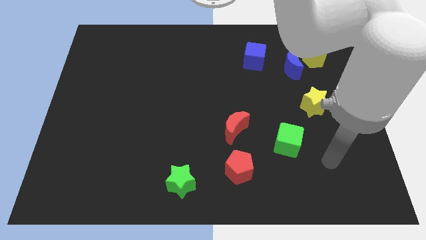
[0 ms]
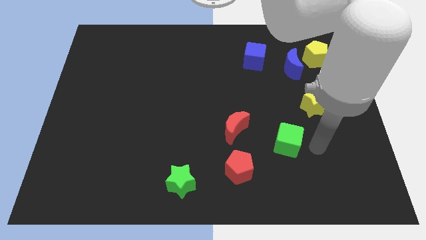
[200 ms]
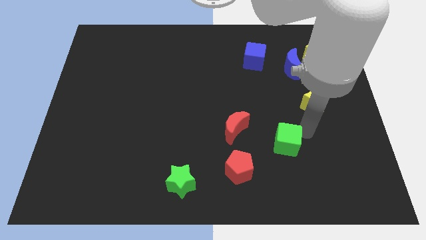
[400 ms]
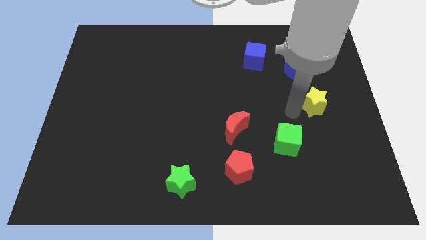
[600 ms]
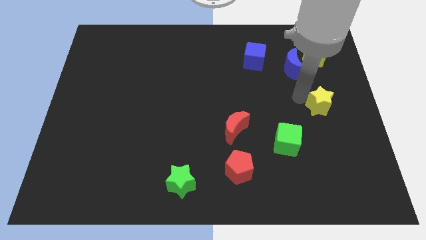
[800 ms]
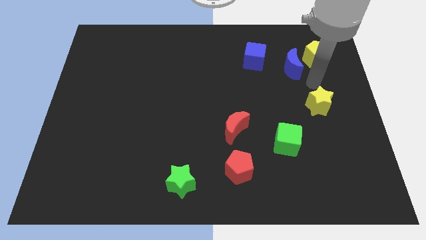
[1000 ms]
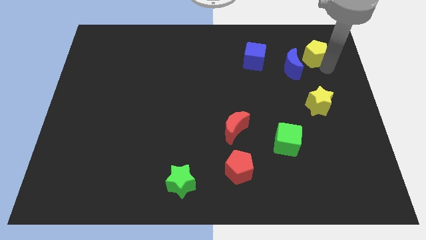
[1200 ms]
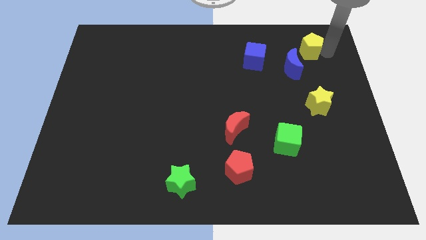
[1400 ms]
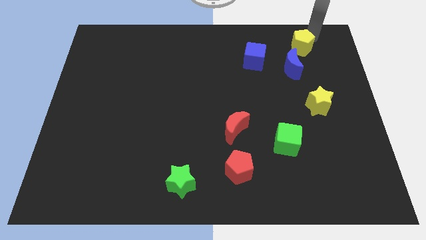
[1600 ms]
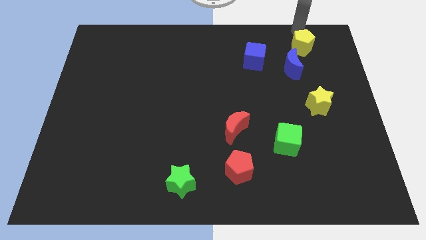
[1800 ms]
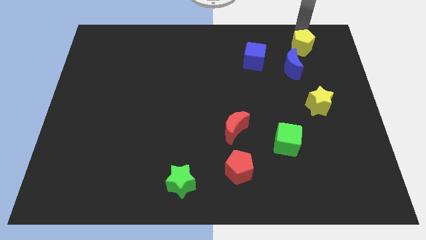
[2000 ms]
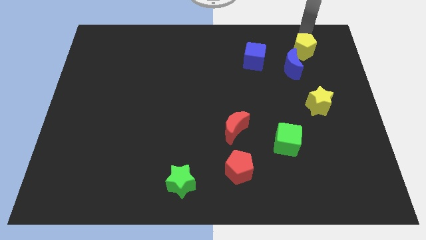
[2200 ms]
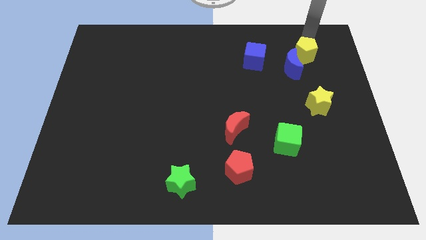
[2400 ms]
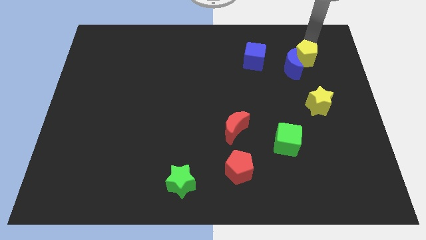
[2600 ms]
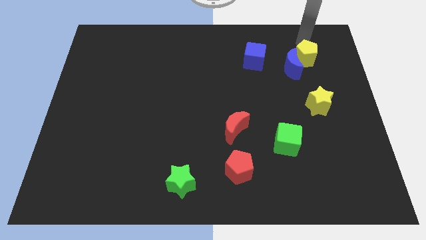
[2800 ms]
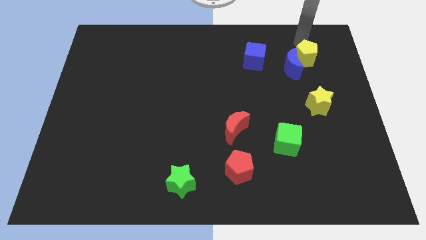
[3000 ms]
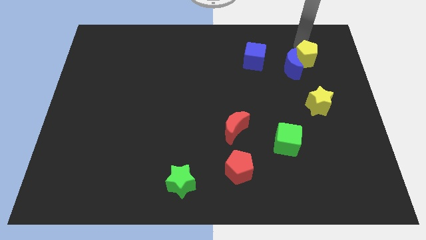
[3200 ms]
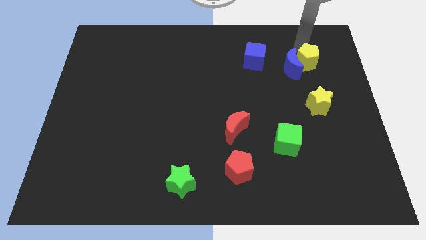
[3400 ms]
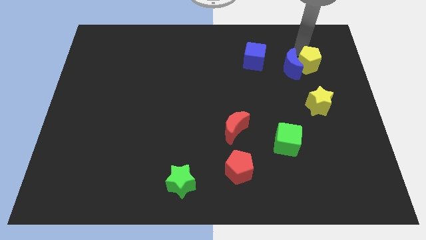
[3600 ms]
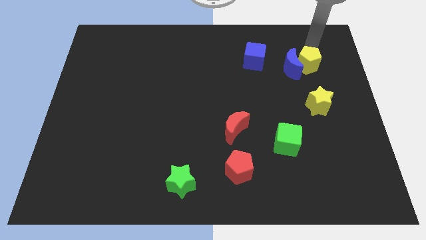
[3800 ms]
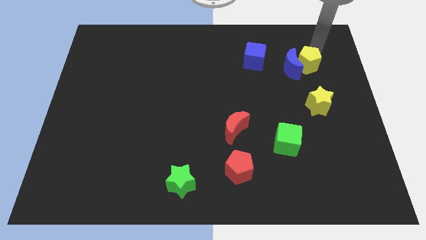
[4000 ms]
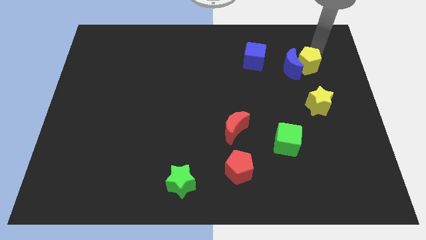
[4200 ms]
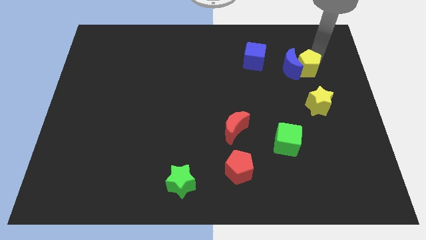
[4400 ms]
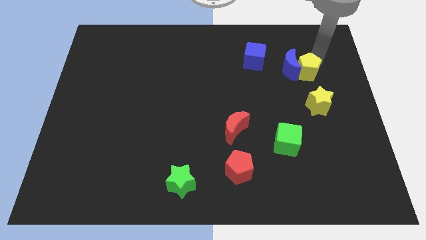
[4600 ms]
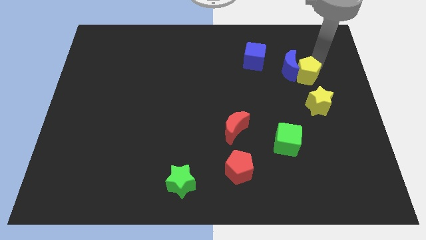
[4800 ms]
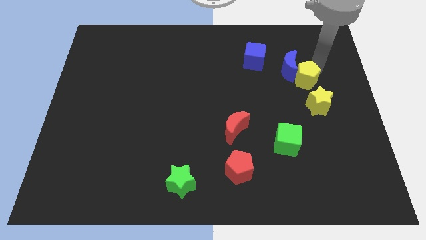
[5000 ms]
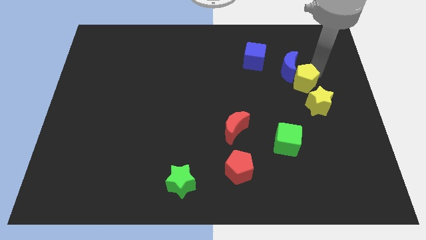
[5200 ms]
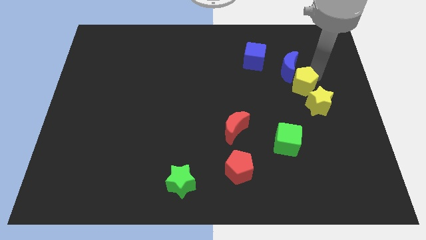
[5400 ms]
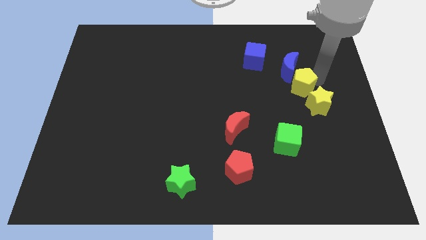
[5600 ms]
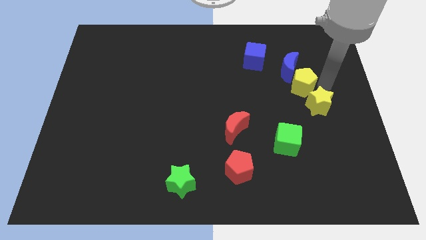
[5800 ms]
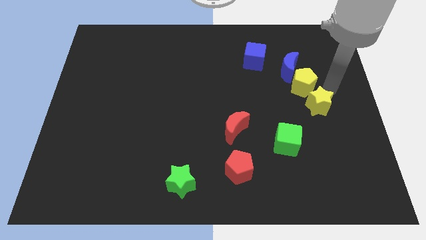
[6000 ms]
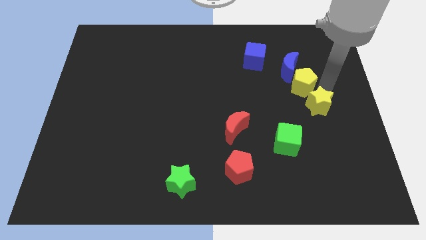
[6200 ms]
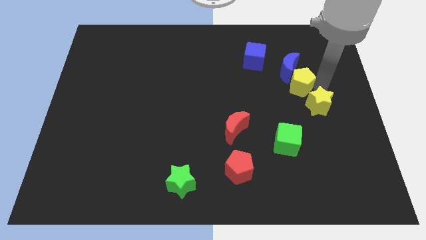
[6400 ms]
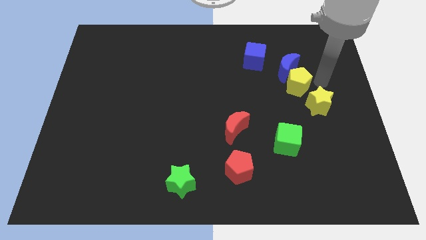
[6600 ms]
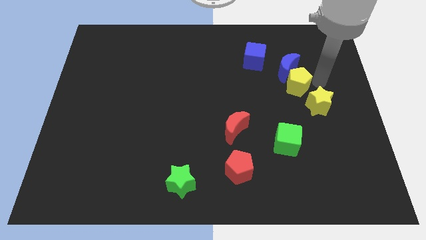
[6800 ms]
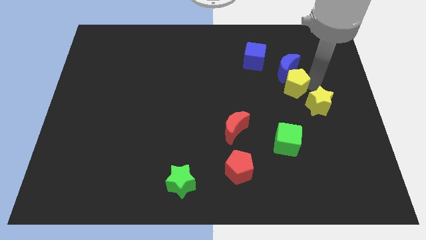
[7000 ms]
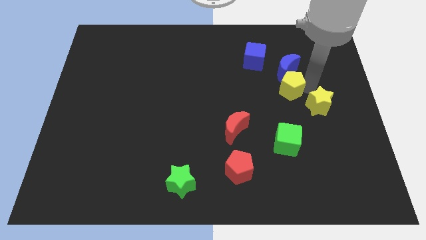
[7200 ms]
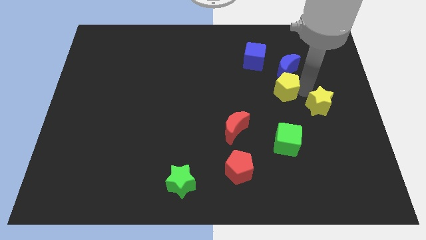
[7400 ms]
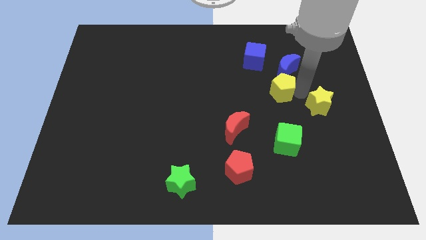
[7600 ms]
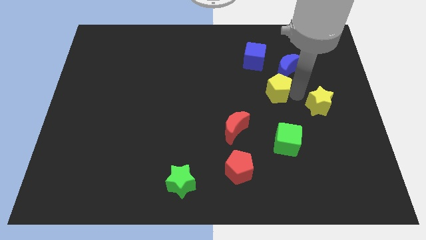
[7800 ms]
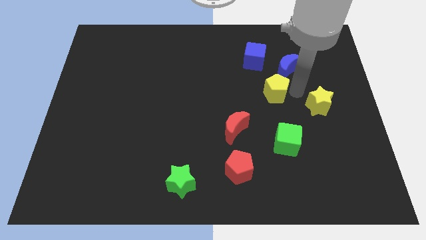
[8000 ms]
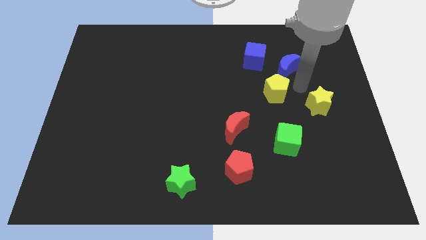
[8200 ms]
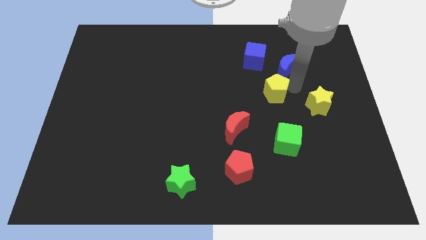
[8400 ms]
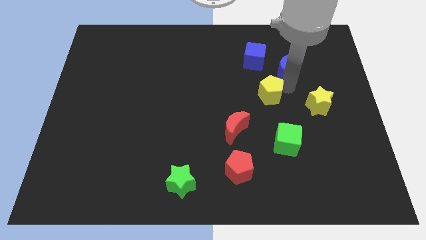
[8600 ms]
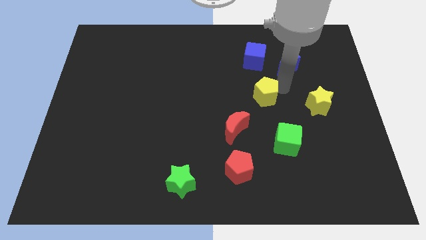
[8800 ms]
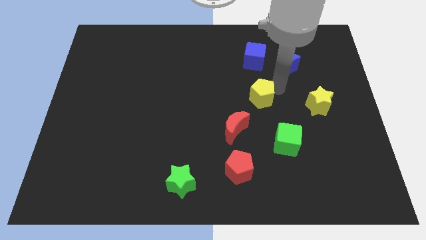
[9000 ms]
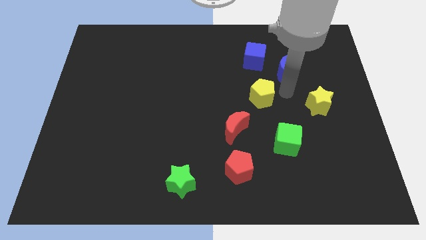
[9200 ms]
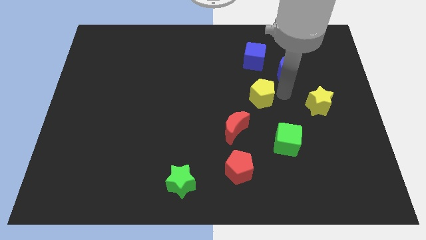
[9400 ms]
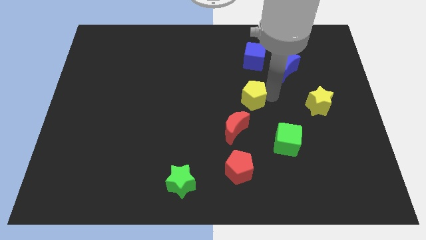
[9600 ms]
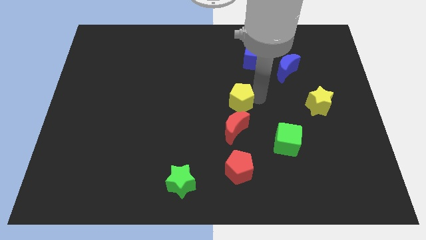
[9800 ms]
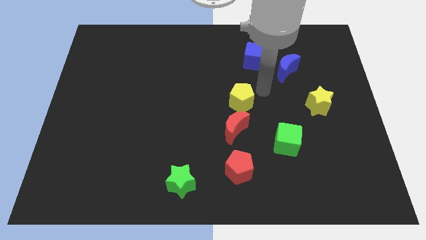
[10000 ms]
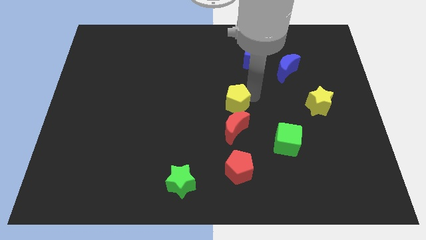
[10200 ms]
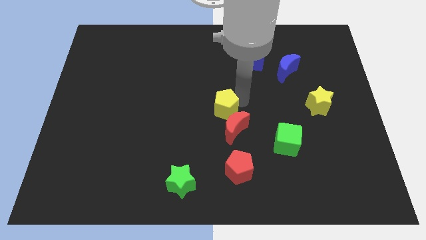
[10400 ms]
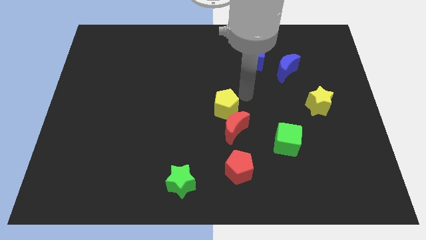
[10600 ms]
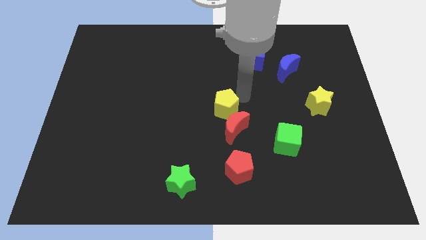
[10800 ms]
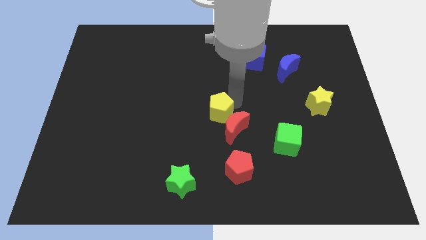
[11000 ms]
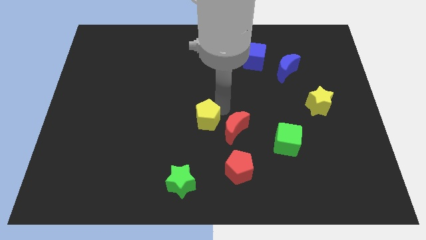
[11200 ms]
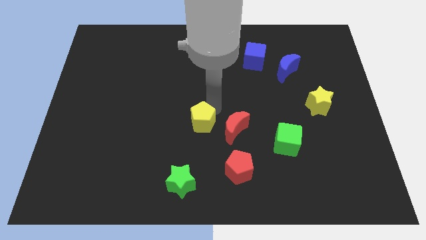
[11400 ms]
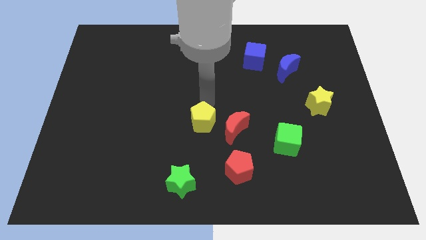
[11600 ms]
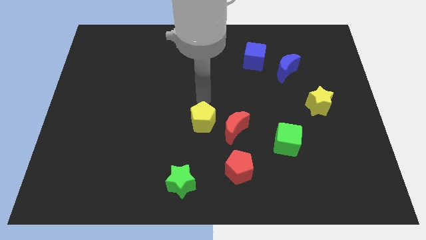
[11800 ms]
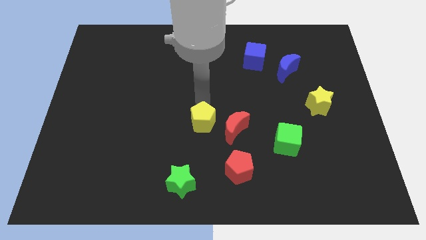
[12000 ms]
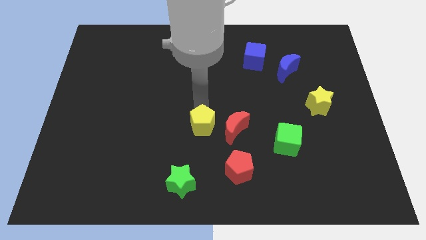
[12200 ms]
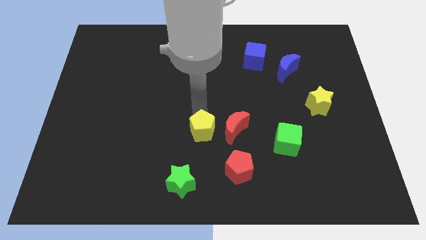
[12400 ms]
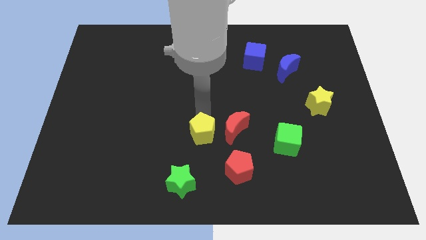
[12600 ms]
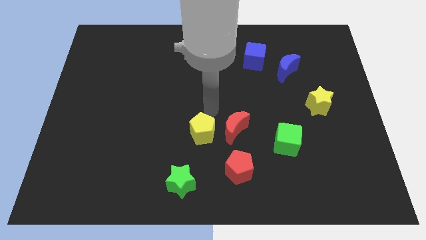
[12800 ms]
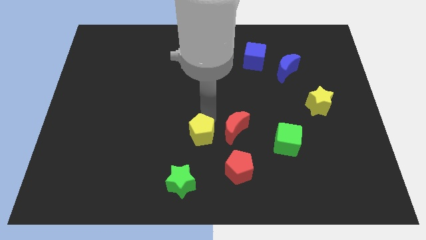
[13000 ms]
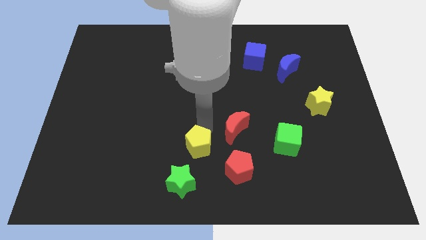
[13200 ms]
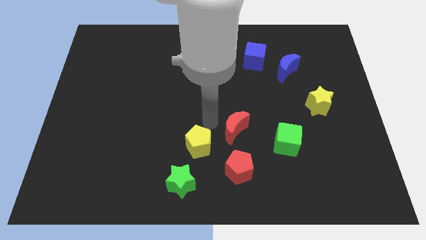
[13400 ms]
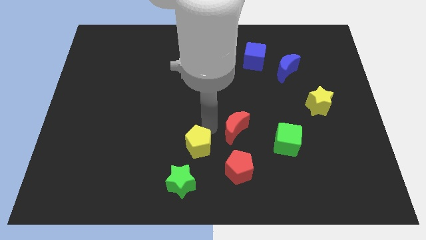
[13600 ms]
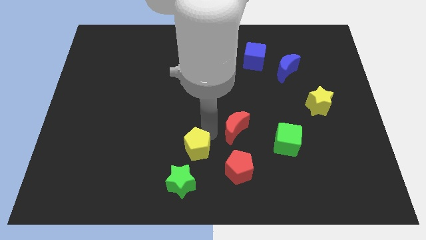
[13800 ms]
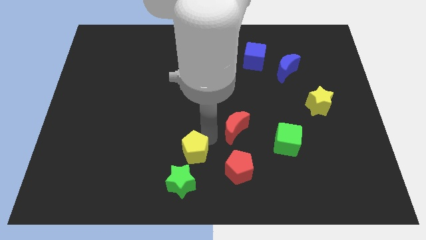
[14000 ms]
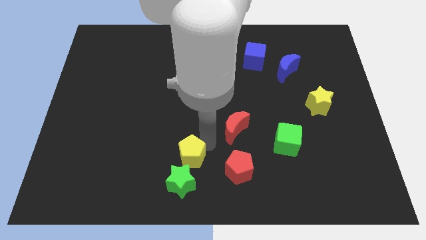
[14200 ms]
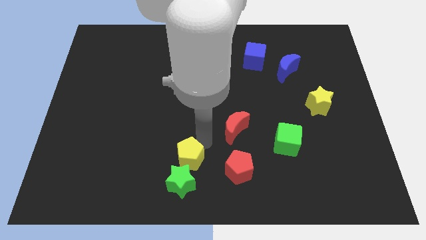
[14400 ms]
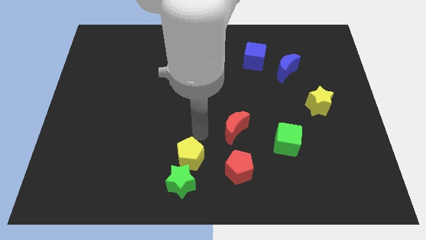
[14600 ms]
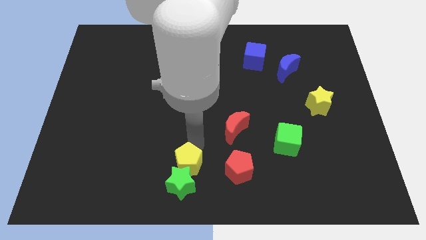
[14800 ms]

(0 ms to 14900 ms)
move the yellow pentagon close to the green star
